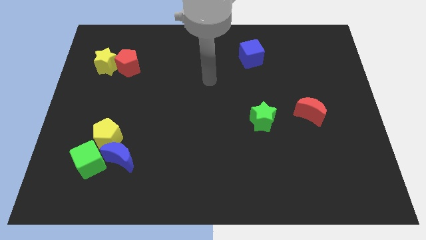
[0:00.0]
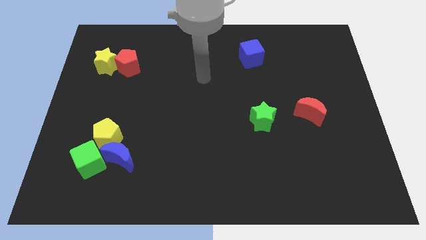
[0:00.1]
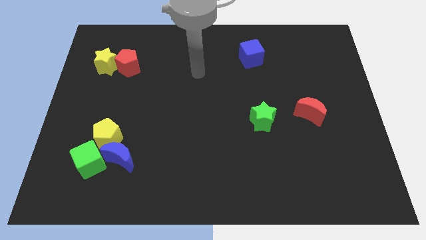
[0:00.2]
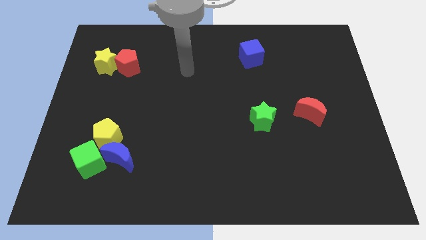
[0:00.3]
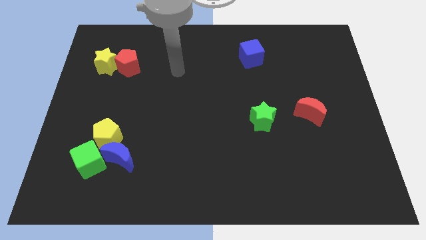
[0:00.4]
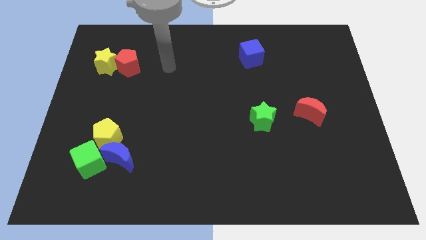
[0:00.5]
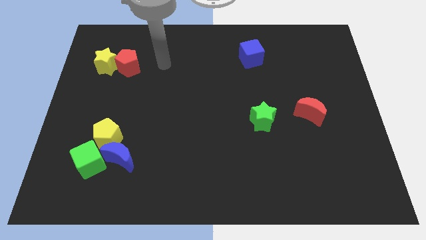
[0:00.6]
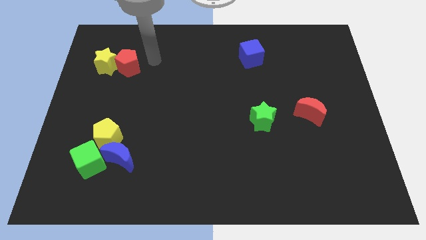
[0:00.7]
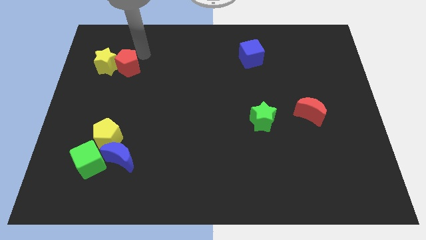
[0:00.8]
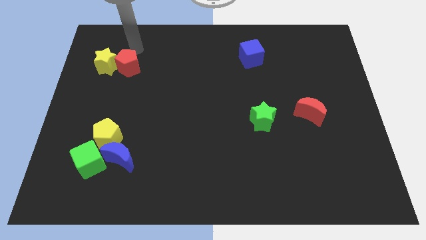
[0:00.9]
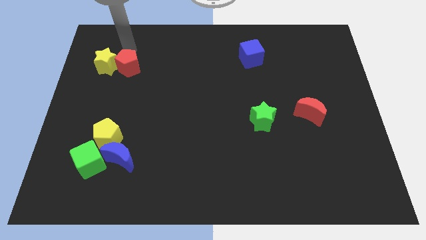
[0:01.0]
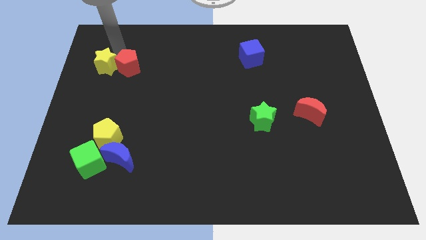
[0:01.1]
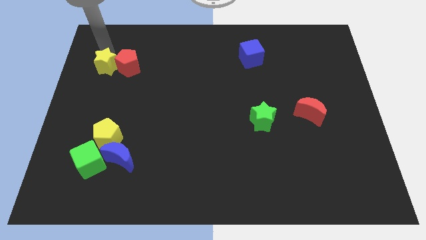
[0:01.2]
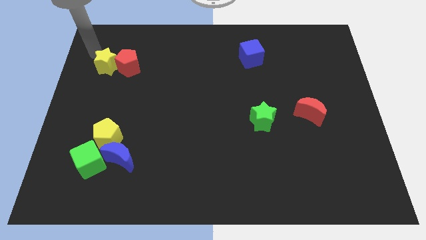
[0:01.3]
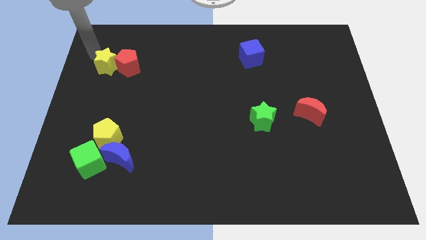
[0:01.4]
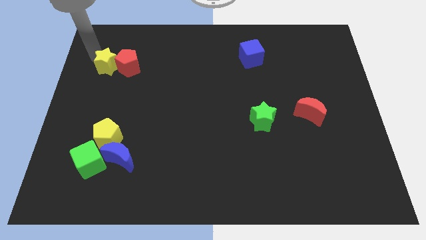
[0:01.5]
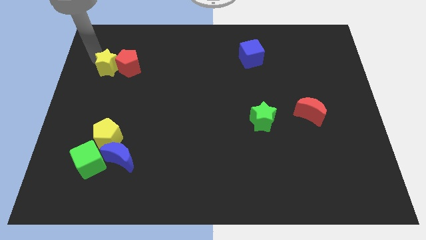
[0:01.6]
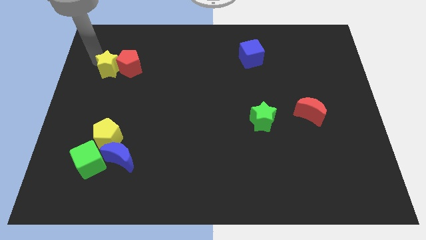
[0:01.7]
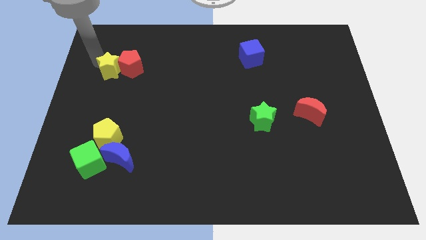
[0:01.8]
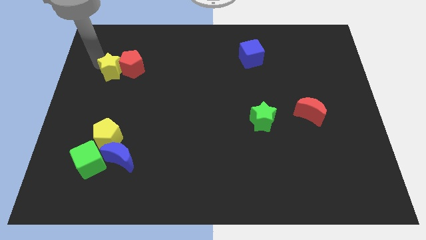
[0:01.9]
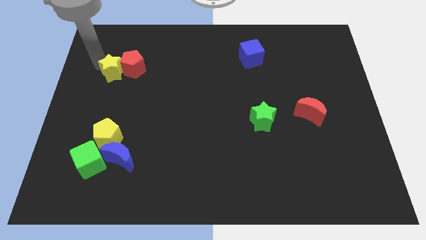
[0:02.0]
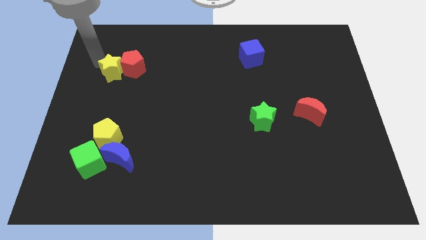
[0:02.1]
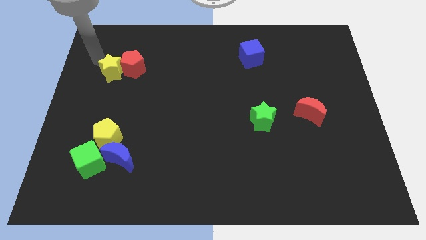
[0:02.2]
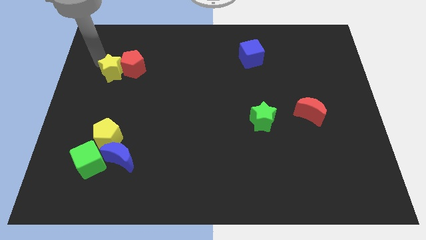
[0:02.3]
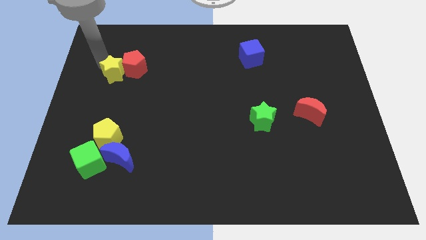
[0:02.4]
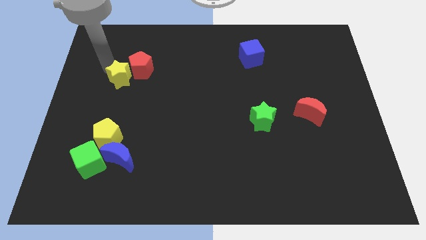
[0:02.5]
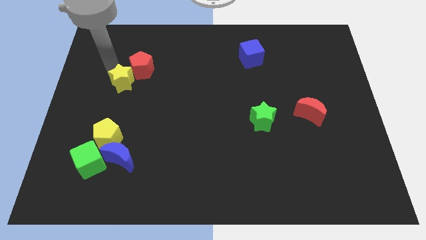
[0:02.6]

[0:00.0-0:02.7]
slightly push the yellow star diagonally down and right

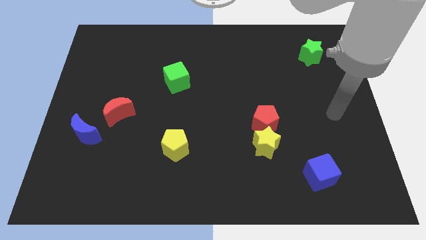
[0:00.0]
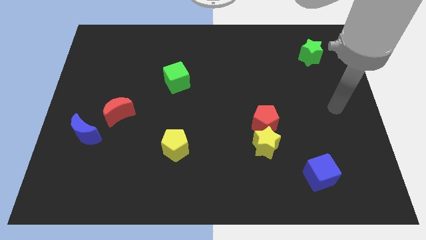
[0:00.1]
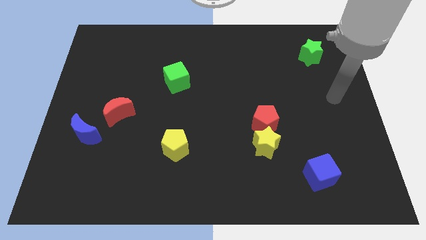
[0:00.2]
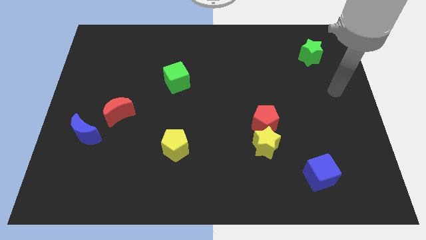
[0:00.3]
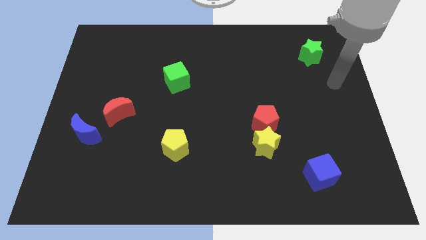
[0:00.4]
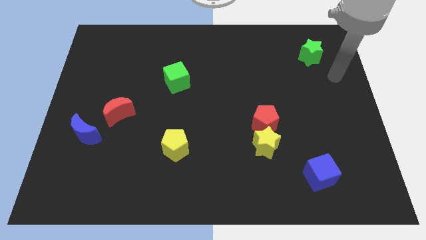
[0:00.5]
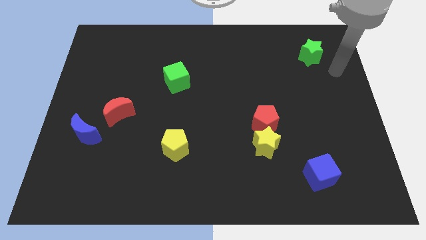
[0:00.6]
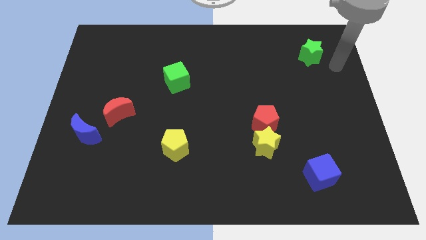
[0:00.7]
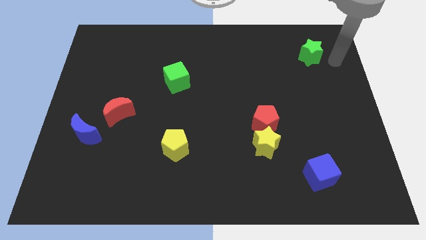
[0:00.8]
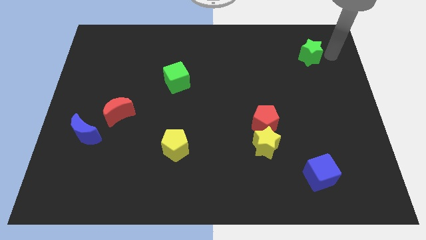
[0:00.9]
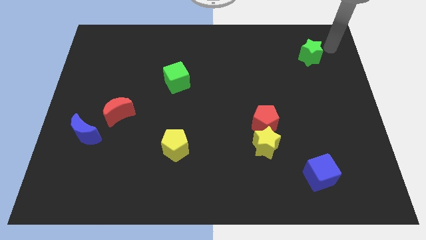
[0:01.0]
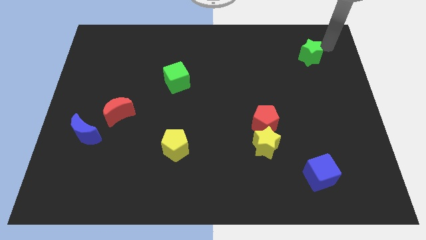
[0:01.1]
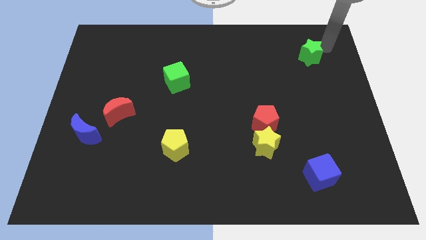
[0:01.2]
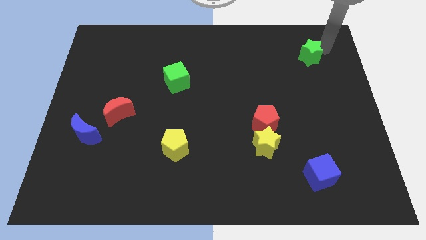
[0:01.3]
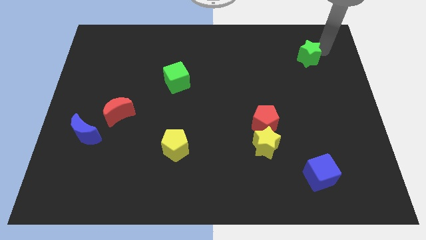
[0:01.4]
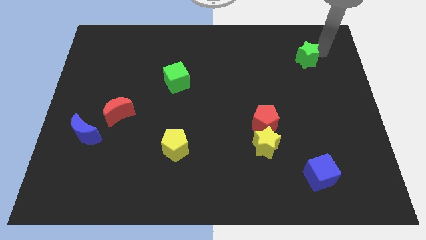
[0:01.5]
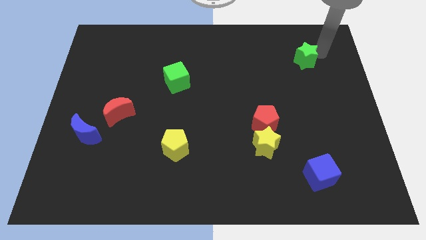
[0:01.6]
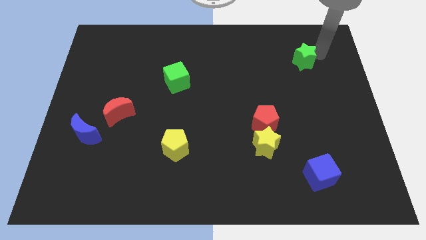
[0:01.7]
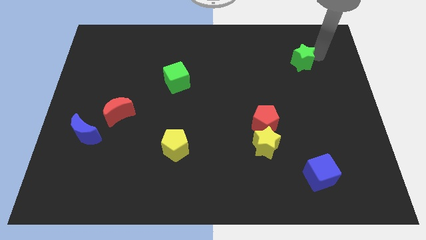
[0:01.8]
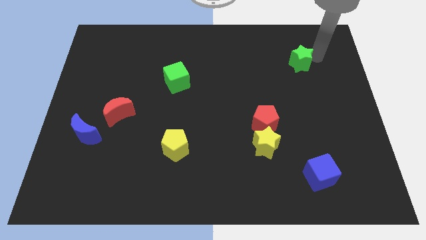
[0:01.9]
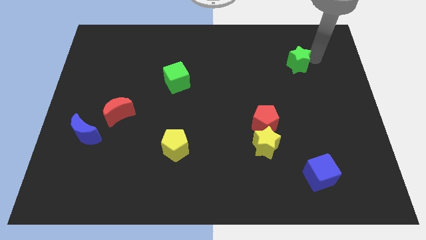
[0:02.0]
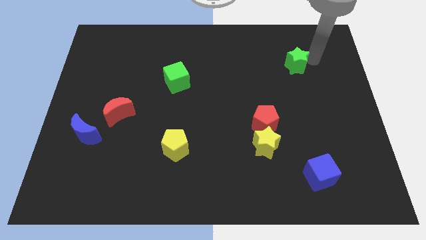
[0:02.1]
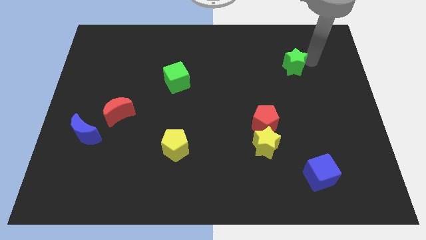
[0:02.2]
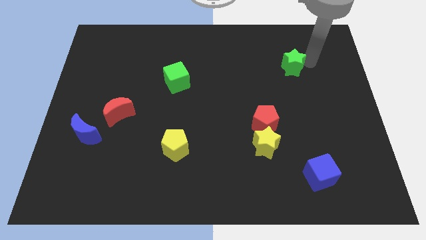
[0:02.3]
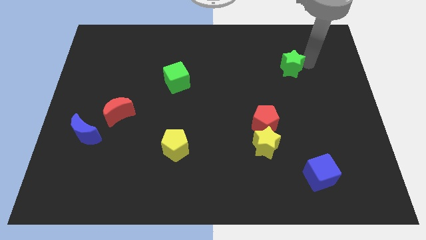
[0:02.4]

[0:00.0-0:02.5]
slightly slide the green star diagonally down and left

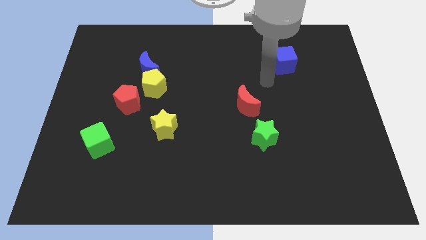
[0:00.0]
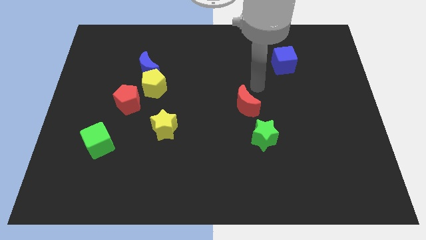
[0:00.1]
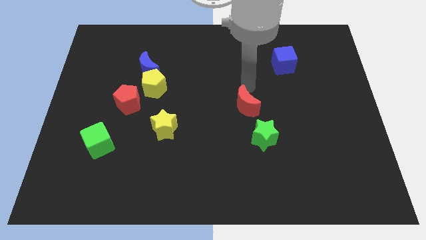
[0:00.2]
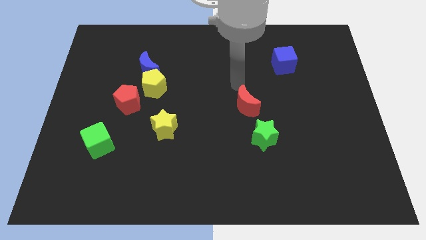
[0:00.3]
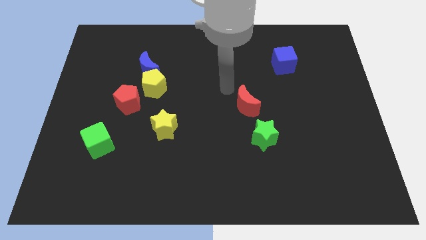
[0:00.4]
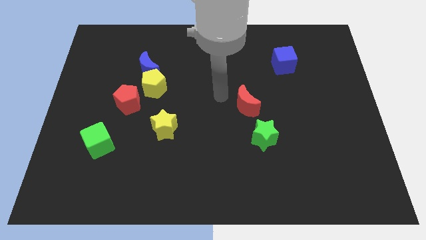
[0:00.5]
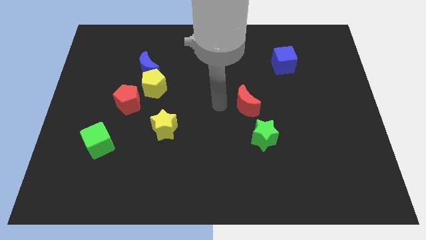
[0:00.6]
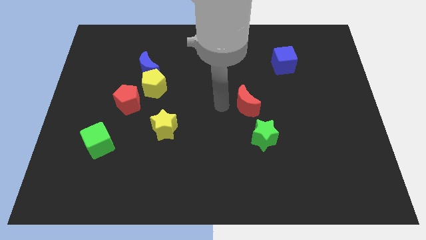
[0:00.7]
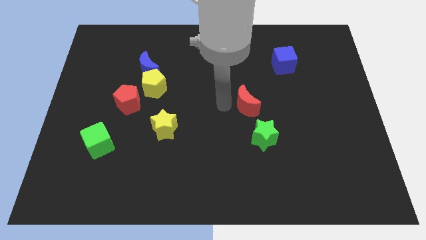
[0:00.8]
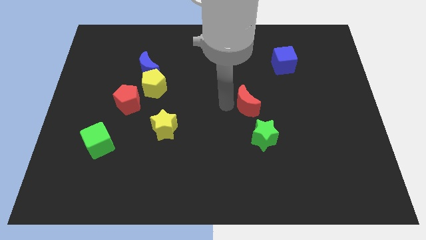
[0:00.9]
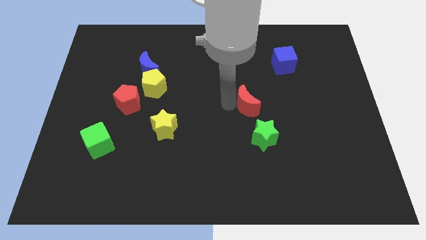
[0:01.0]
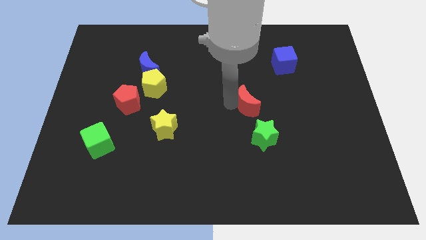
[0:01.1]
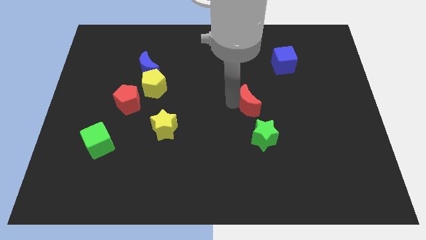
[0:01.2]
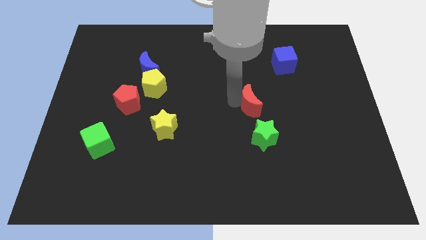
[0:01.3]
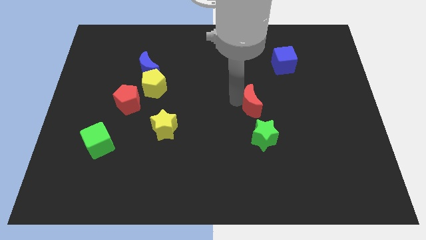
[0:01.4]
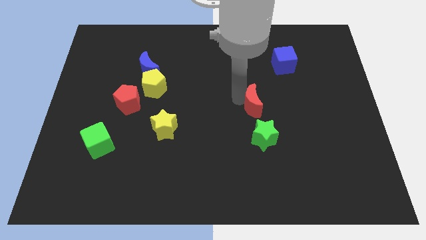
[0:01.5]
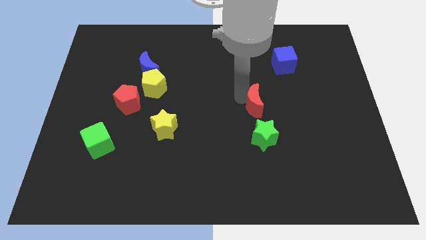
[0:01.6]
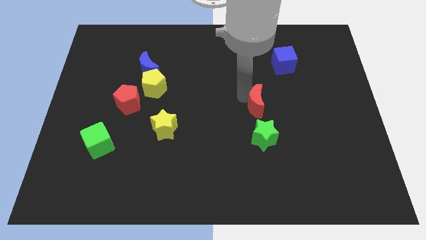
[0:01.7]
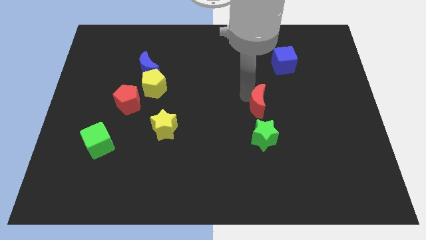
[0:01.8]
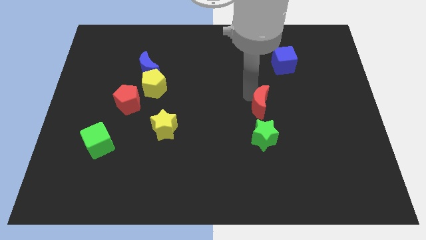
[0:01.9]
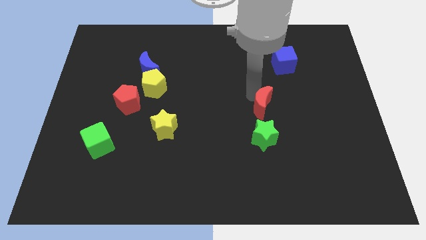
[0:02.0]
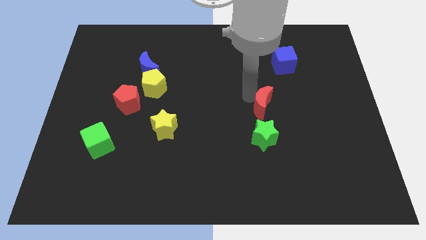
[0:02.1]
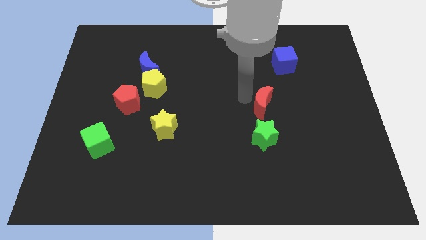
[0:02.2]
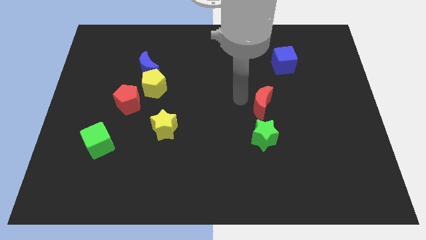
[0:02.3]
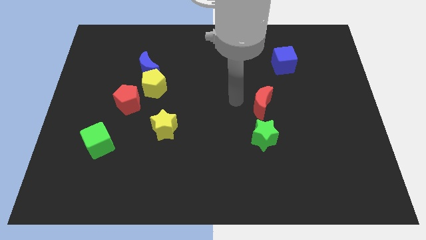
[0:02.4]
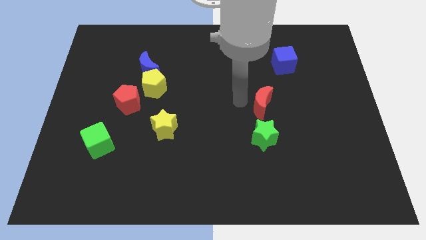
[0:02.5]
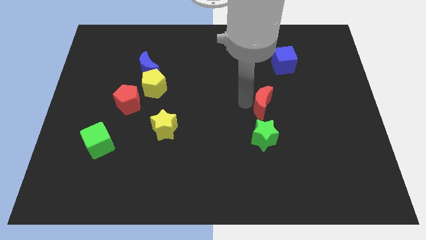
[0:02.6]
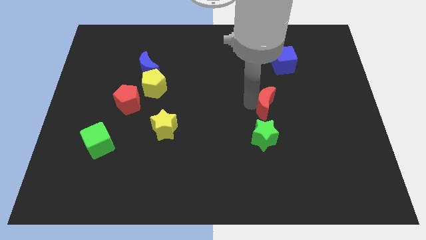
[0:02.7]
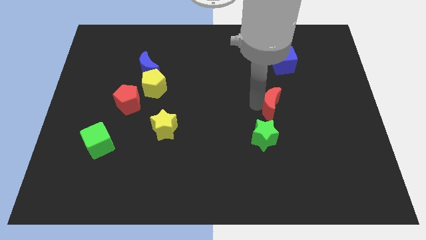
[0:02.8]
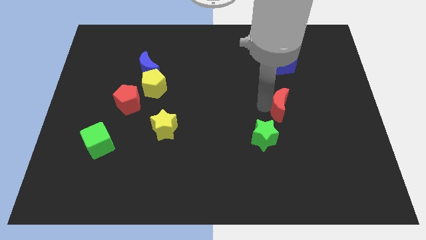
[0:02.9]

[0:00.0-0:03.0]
slightly slide the red moon right
